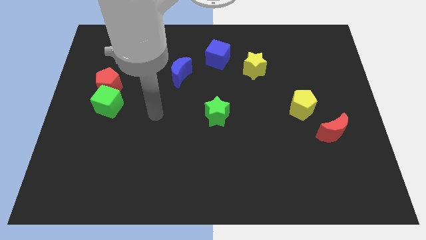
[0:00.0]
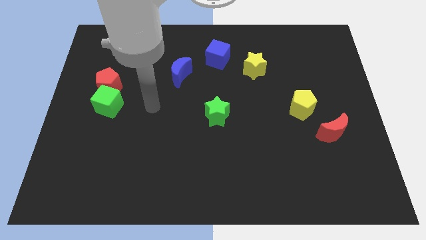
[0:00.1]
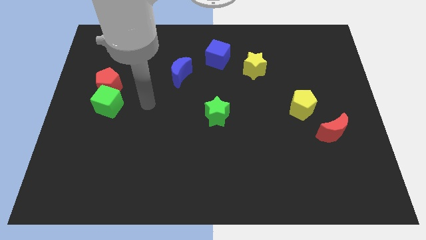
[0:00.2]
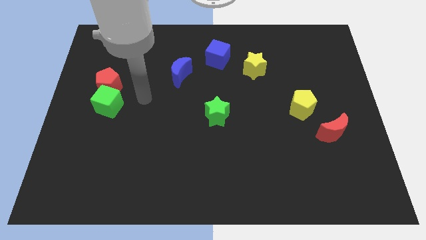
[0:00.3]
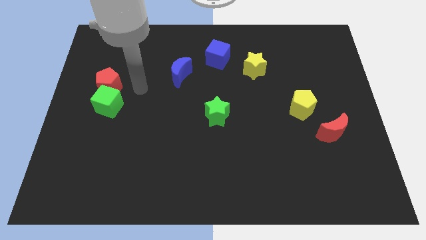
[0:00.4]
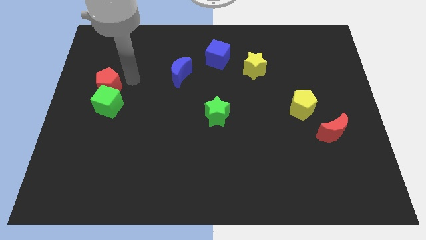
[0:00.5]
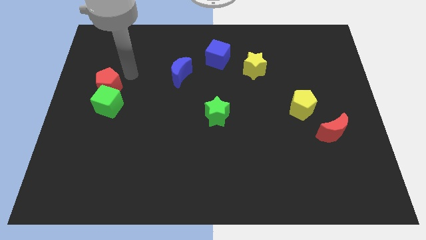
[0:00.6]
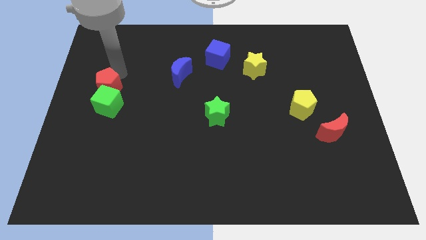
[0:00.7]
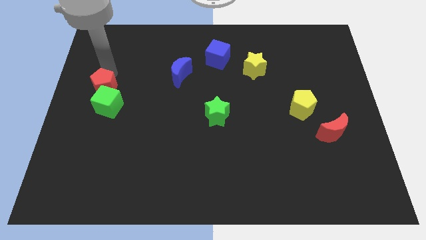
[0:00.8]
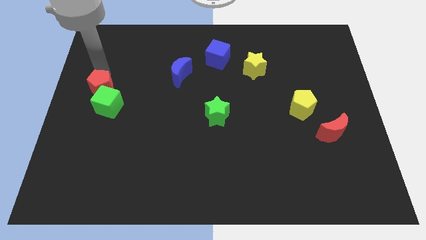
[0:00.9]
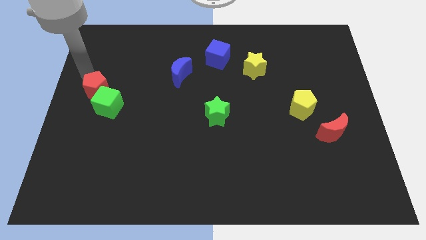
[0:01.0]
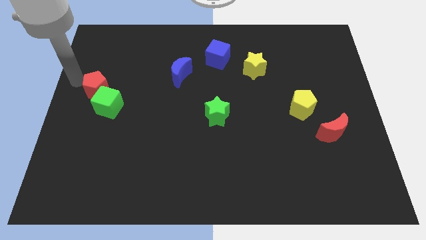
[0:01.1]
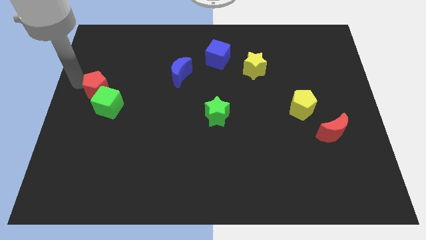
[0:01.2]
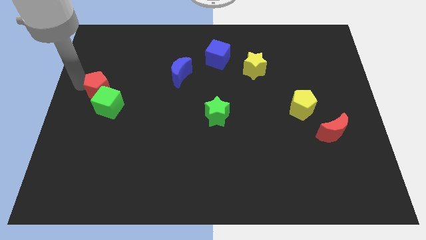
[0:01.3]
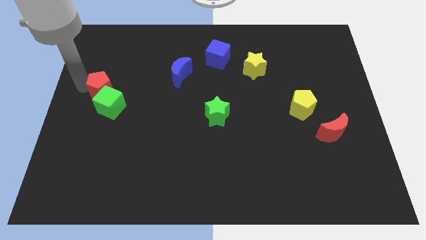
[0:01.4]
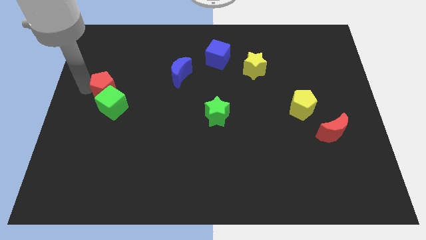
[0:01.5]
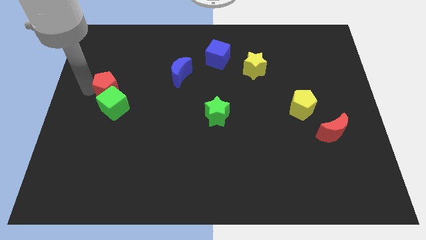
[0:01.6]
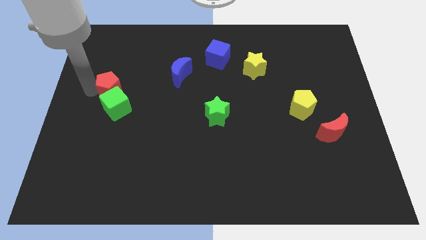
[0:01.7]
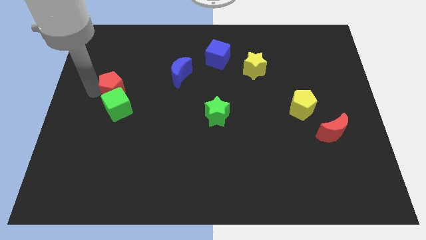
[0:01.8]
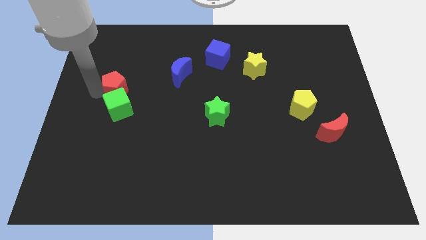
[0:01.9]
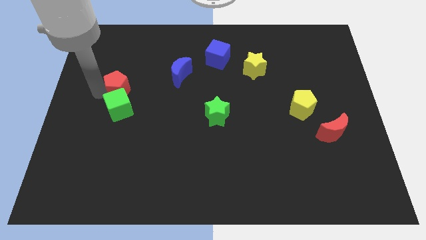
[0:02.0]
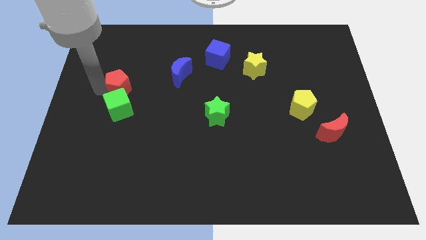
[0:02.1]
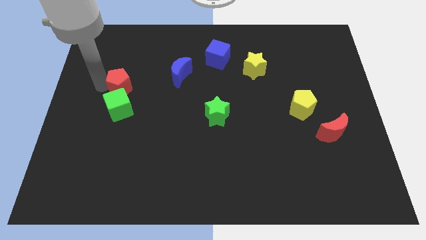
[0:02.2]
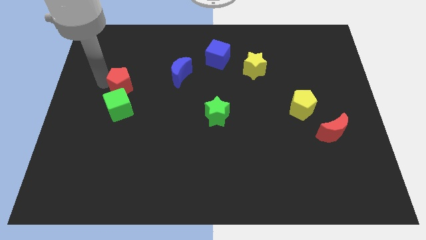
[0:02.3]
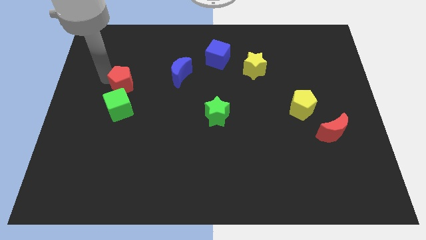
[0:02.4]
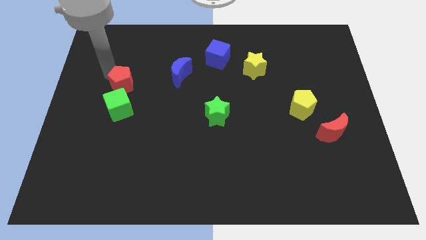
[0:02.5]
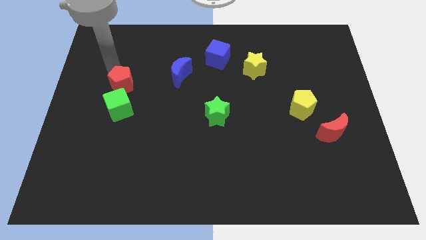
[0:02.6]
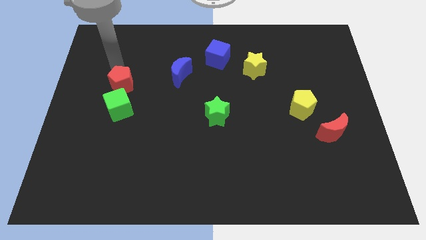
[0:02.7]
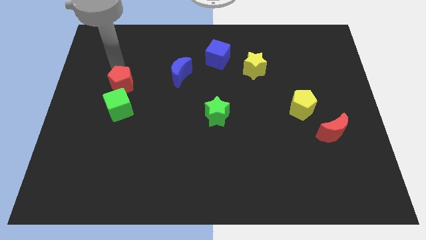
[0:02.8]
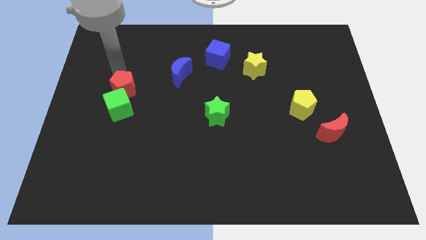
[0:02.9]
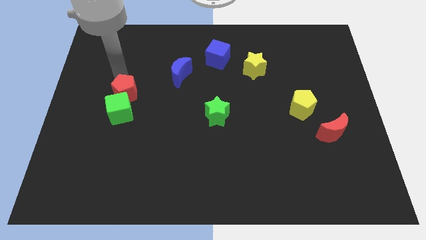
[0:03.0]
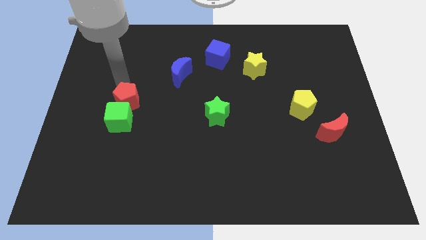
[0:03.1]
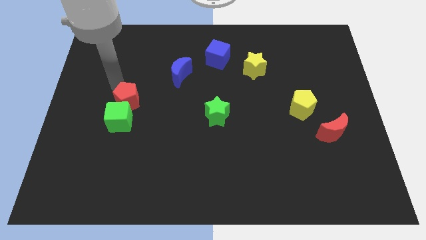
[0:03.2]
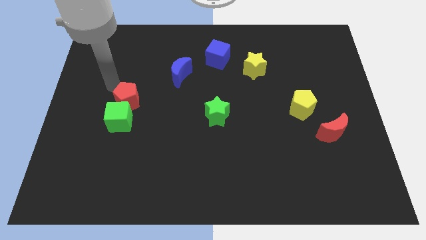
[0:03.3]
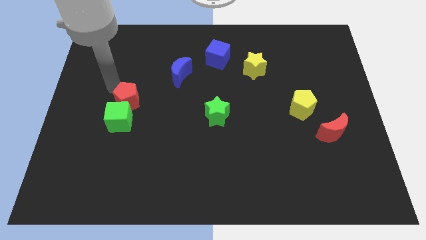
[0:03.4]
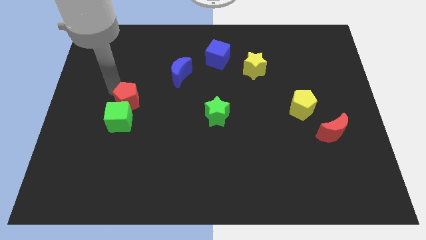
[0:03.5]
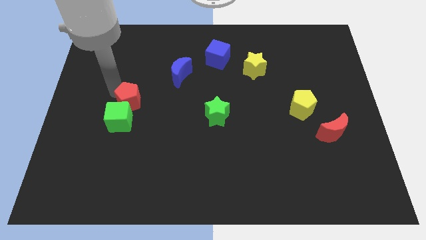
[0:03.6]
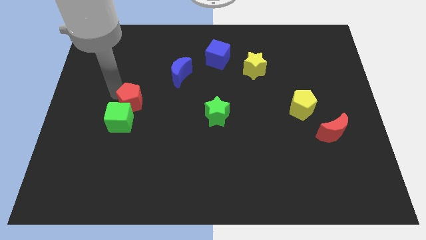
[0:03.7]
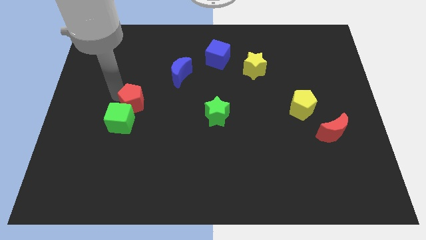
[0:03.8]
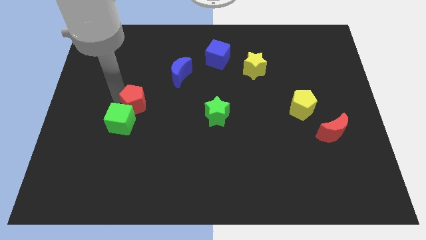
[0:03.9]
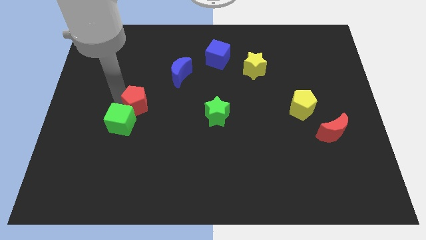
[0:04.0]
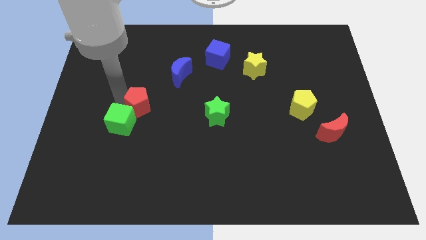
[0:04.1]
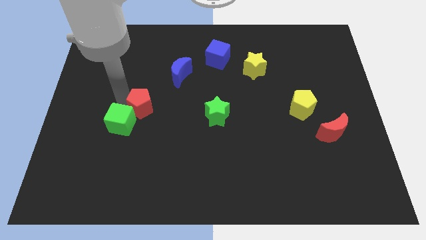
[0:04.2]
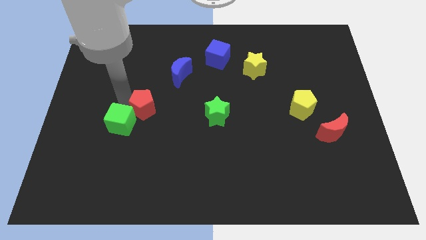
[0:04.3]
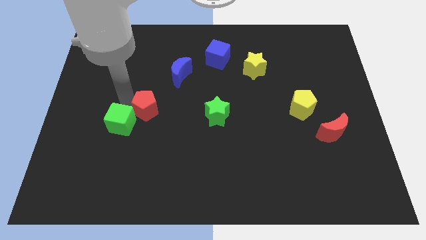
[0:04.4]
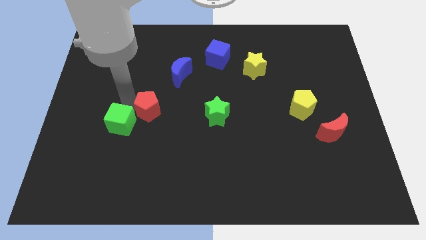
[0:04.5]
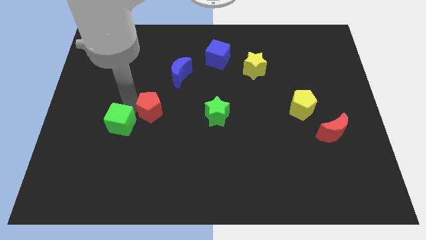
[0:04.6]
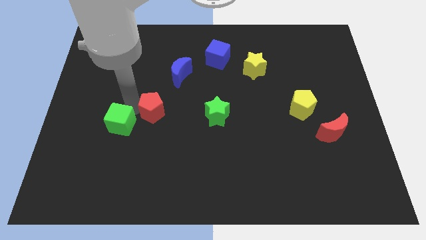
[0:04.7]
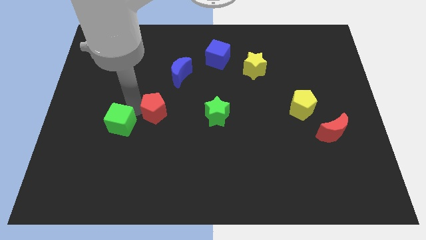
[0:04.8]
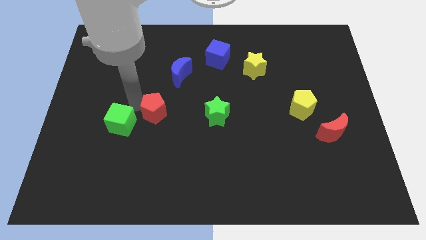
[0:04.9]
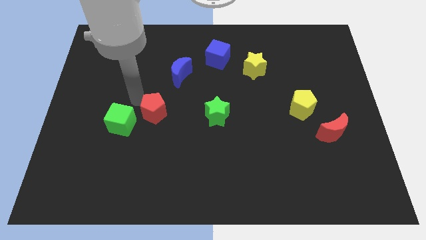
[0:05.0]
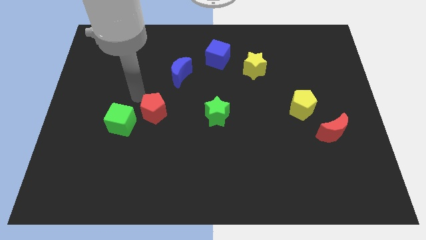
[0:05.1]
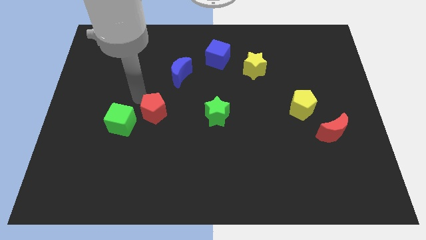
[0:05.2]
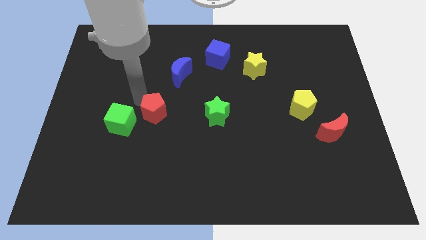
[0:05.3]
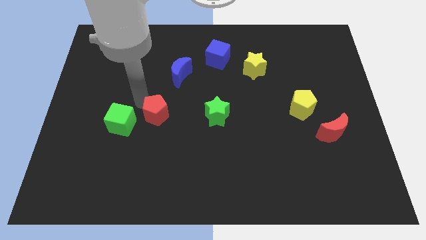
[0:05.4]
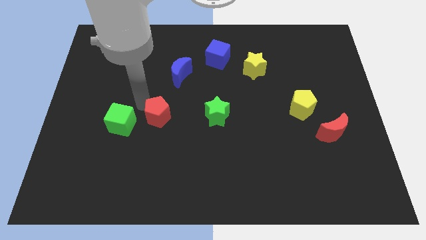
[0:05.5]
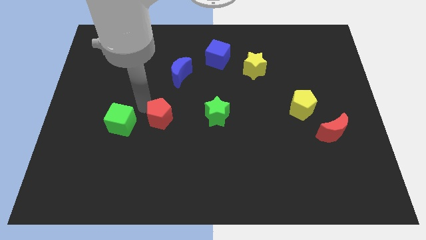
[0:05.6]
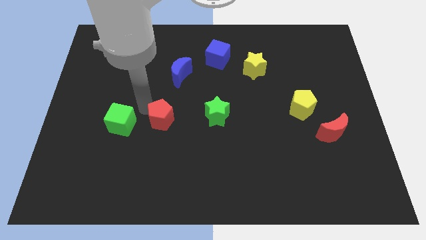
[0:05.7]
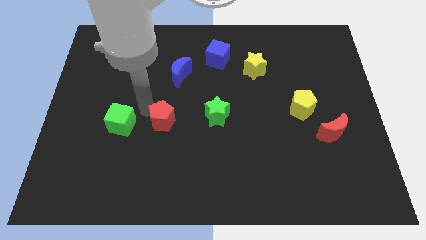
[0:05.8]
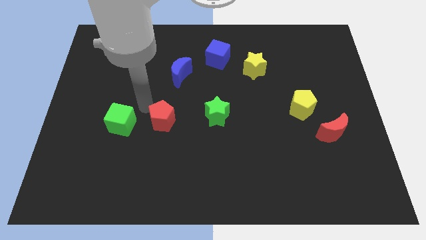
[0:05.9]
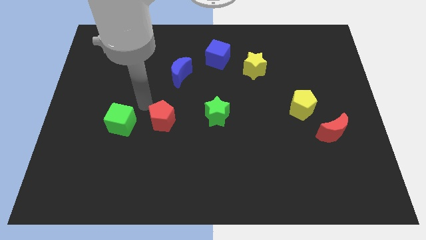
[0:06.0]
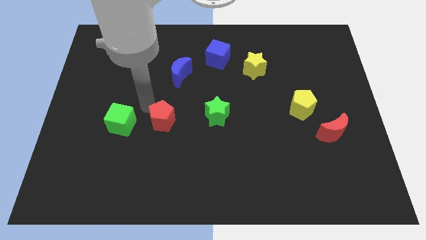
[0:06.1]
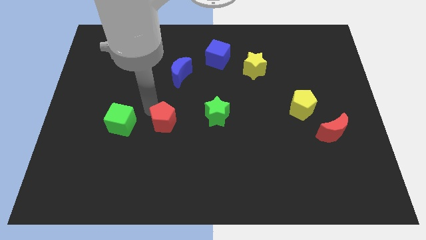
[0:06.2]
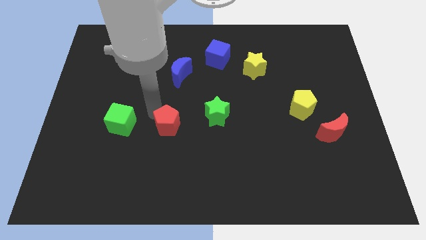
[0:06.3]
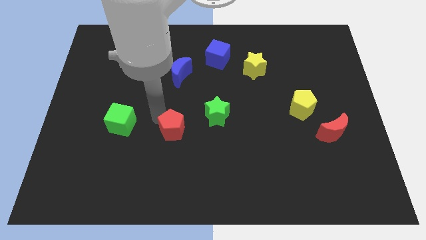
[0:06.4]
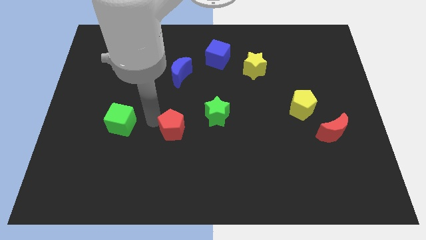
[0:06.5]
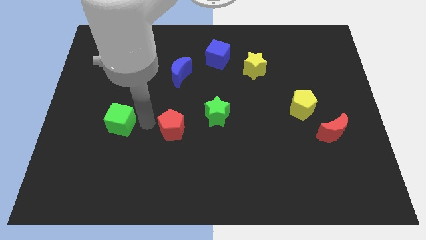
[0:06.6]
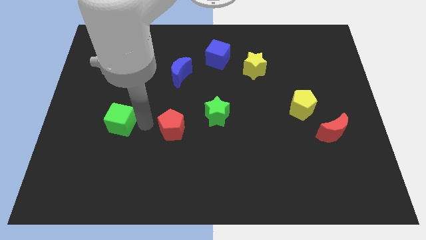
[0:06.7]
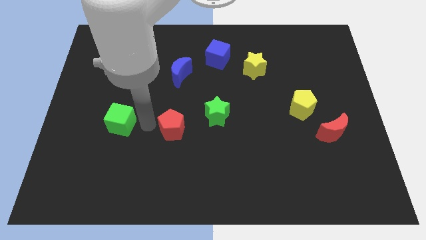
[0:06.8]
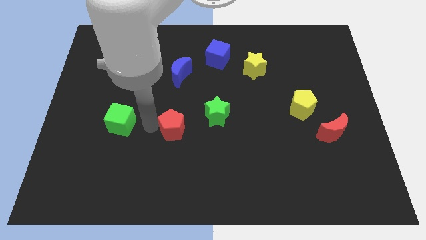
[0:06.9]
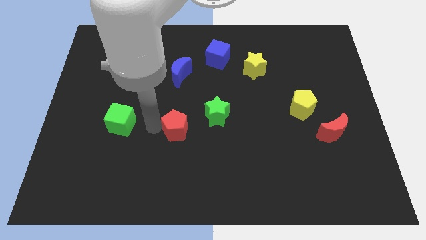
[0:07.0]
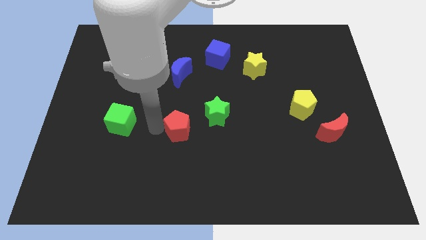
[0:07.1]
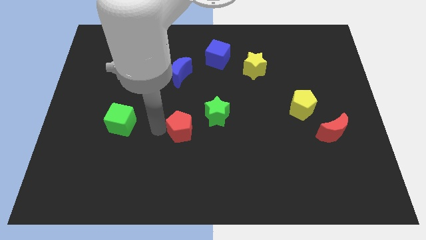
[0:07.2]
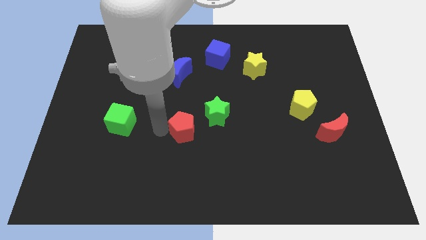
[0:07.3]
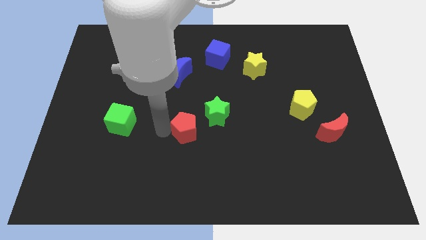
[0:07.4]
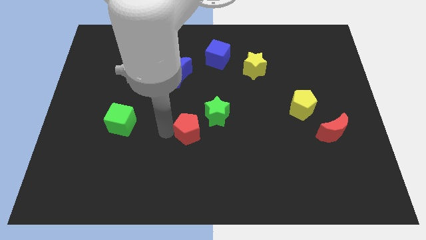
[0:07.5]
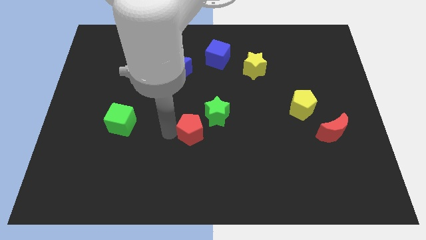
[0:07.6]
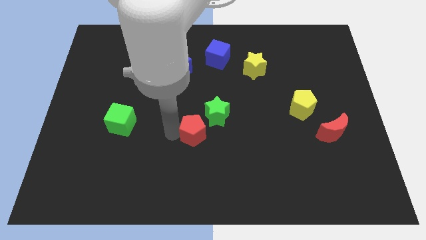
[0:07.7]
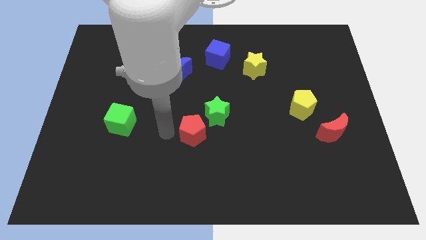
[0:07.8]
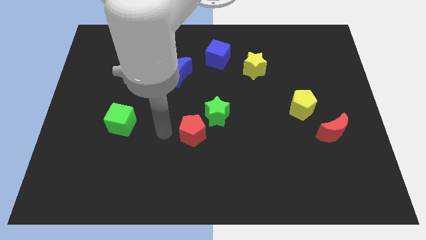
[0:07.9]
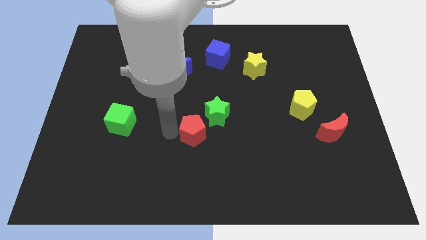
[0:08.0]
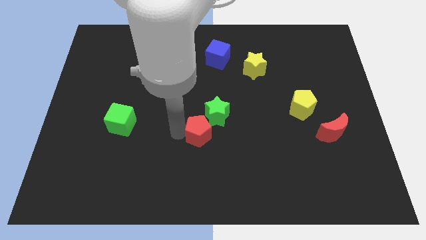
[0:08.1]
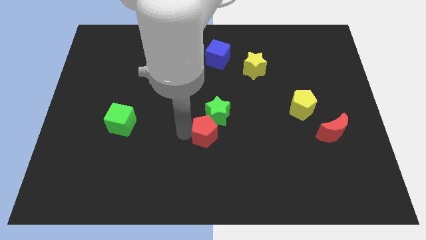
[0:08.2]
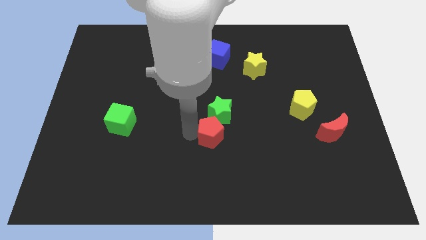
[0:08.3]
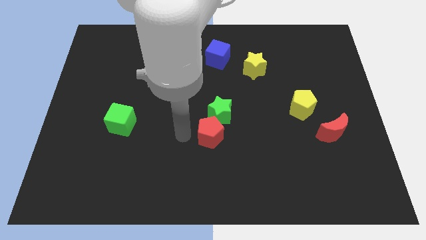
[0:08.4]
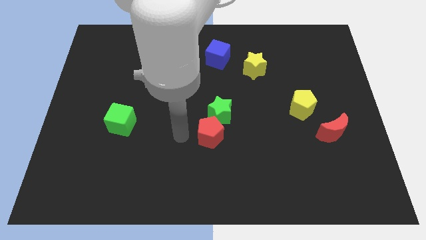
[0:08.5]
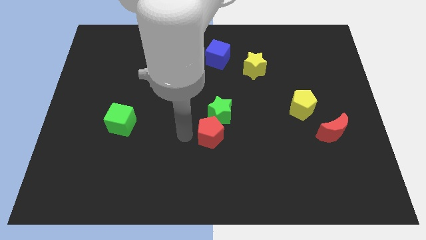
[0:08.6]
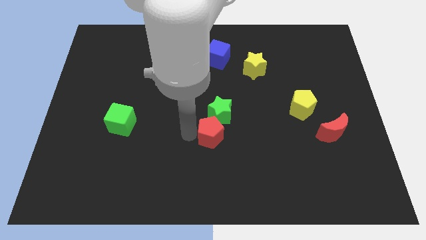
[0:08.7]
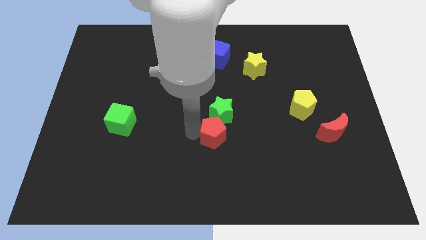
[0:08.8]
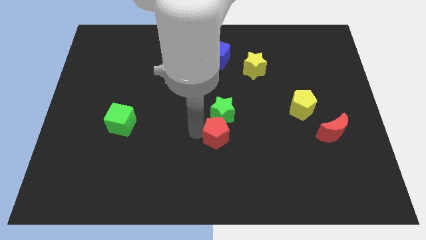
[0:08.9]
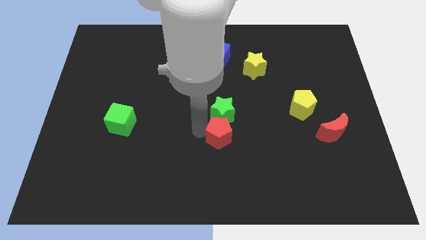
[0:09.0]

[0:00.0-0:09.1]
push the red pentagon to the bottom right side of the green star
